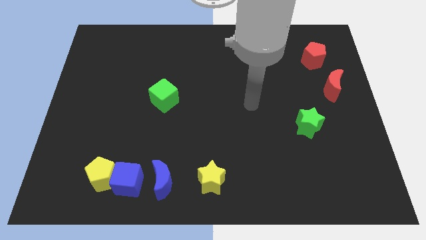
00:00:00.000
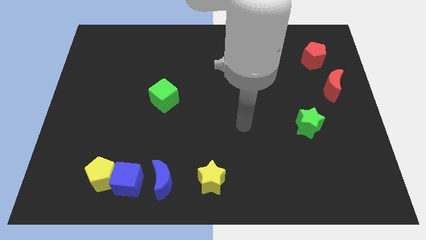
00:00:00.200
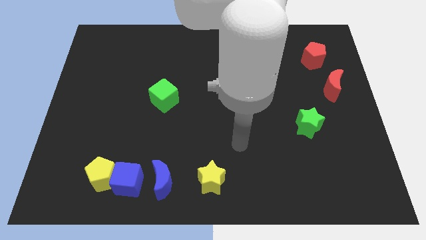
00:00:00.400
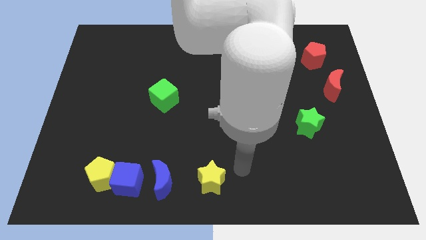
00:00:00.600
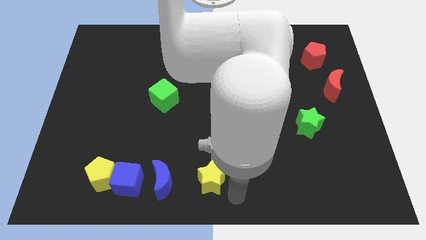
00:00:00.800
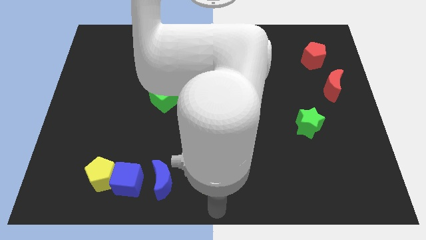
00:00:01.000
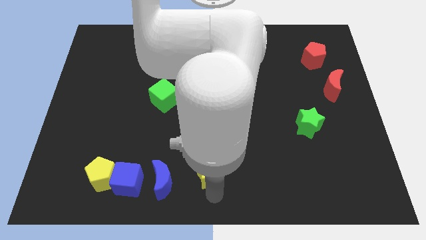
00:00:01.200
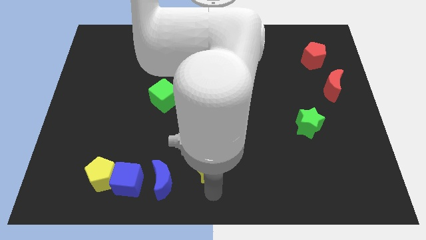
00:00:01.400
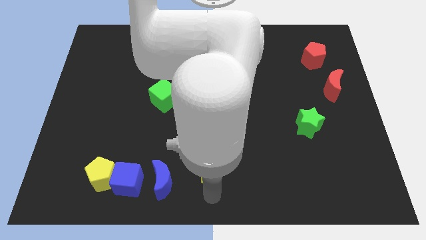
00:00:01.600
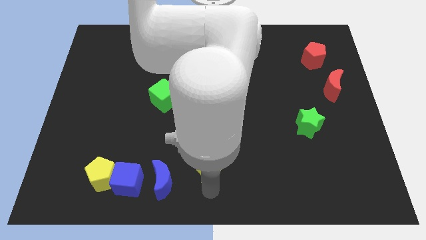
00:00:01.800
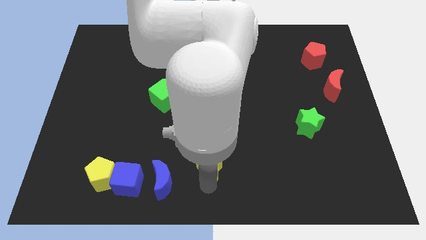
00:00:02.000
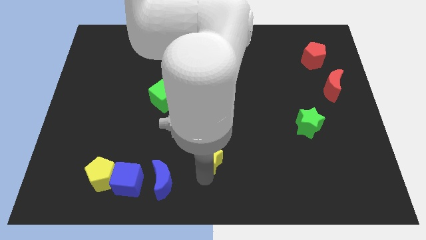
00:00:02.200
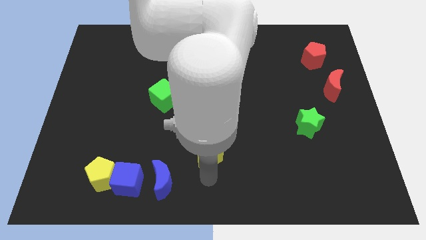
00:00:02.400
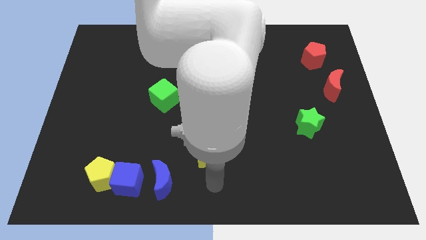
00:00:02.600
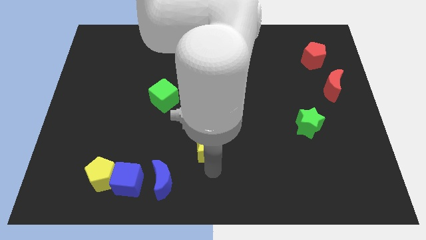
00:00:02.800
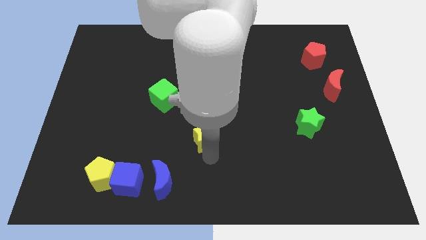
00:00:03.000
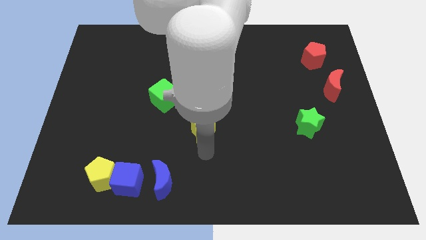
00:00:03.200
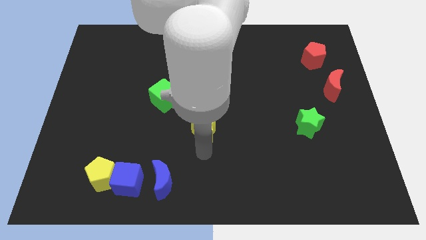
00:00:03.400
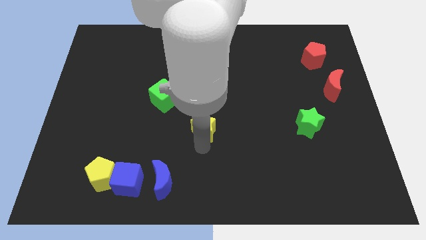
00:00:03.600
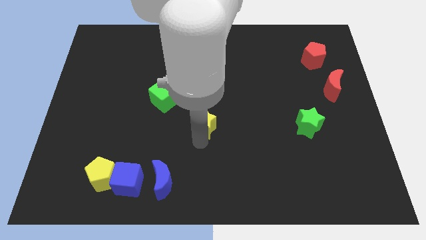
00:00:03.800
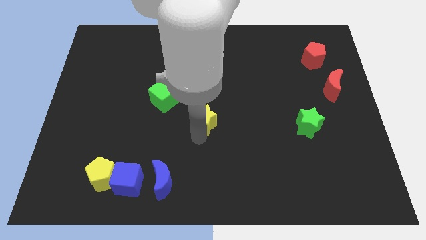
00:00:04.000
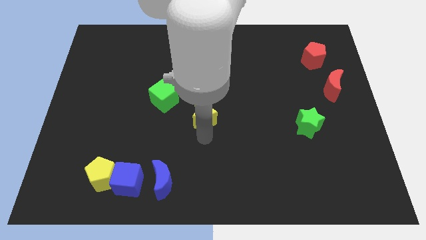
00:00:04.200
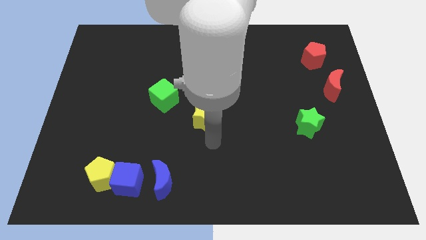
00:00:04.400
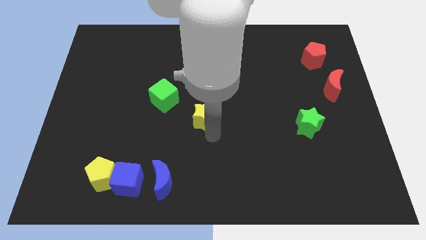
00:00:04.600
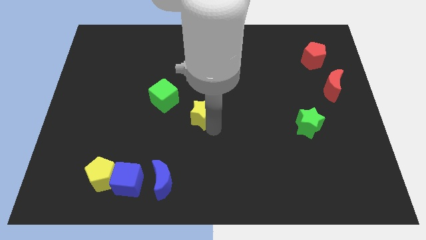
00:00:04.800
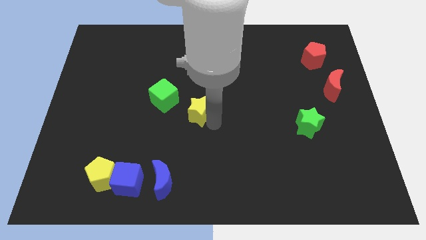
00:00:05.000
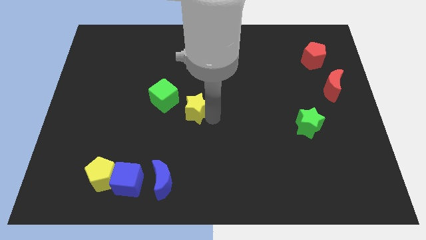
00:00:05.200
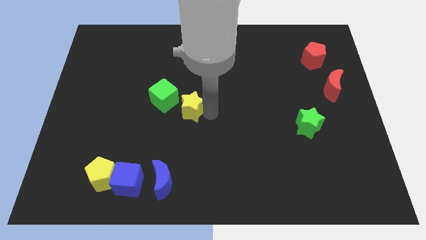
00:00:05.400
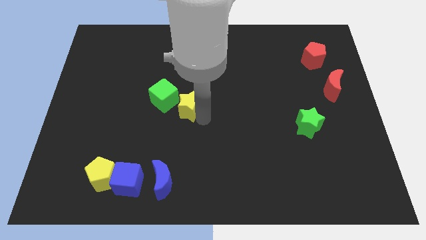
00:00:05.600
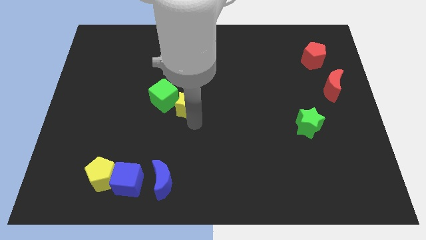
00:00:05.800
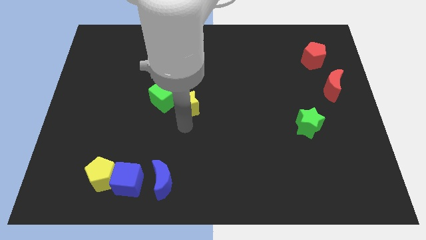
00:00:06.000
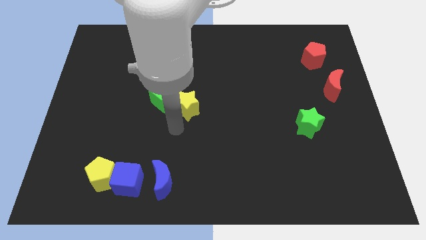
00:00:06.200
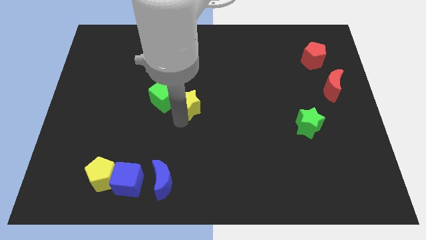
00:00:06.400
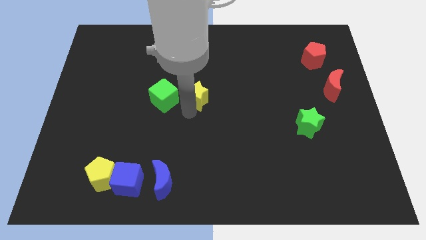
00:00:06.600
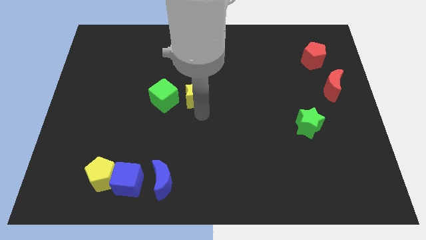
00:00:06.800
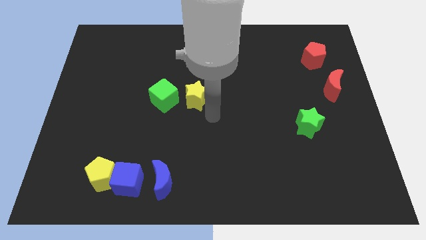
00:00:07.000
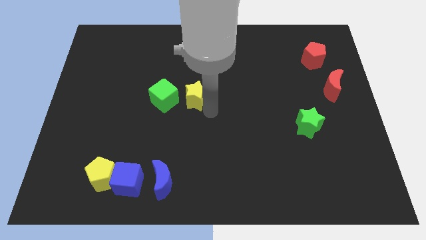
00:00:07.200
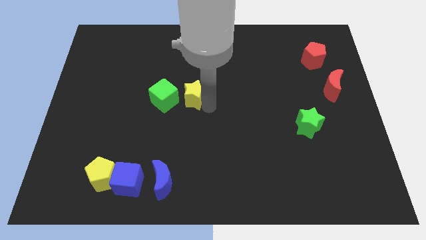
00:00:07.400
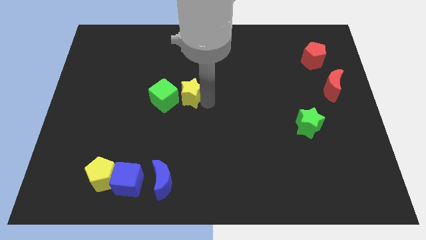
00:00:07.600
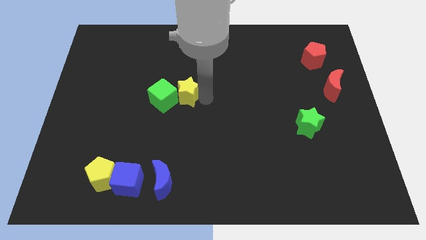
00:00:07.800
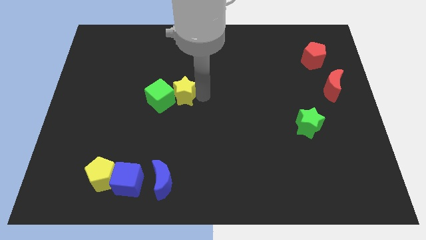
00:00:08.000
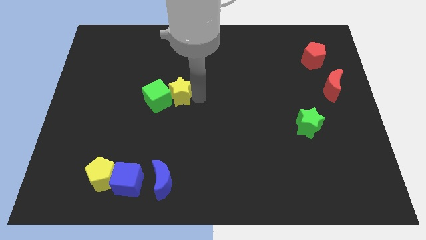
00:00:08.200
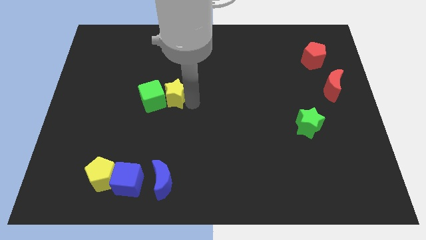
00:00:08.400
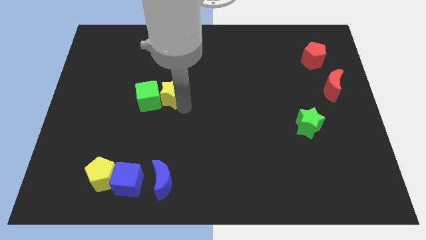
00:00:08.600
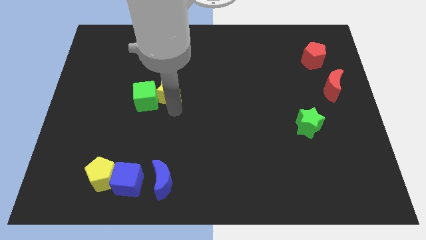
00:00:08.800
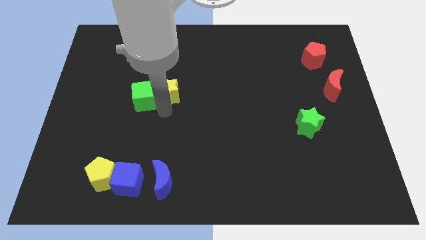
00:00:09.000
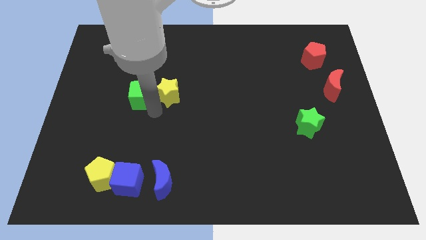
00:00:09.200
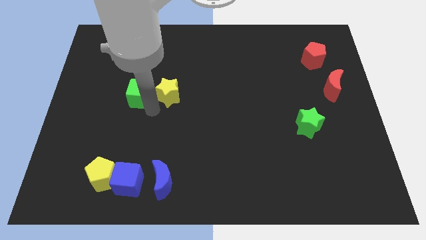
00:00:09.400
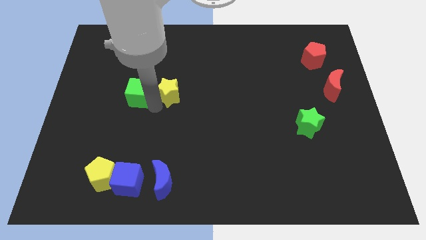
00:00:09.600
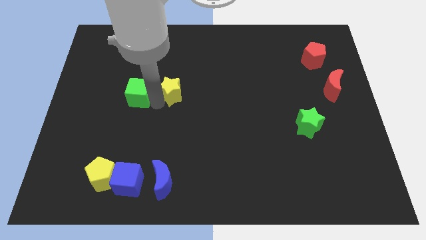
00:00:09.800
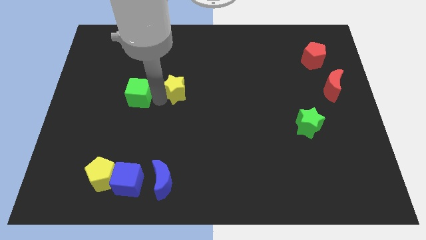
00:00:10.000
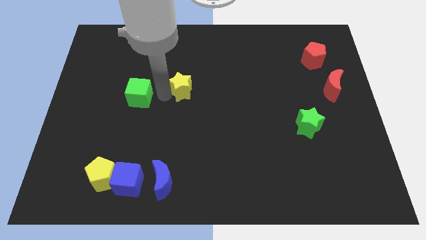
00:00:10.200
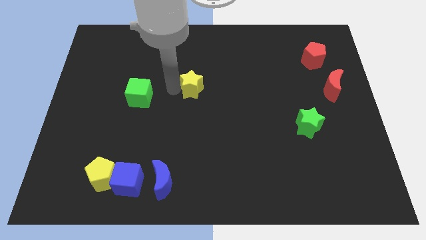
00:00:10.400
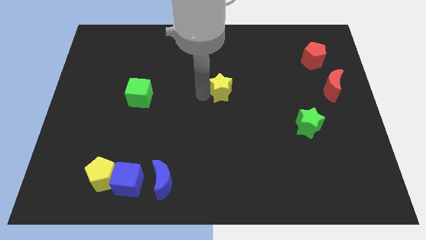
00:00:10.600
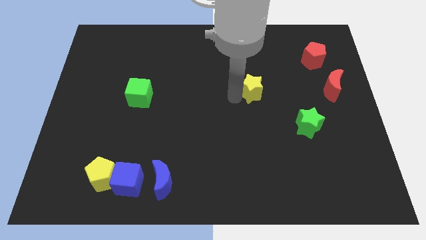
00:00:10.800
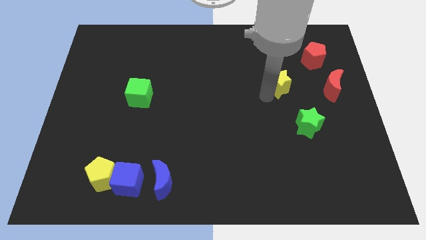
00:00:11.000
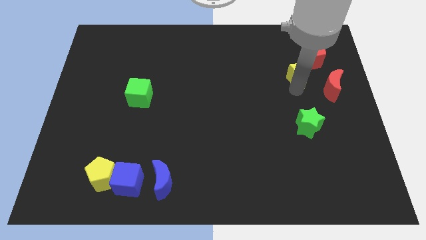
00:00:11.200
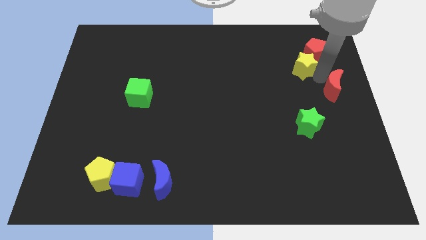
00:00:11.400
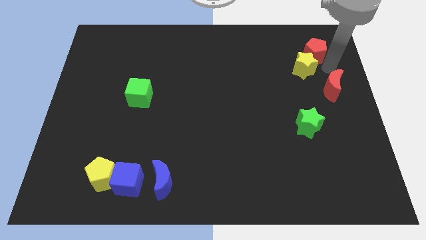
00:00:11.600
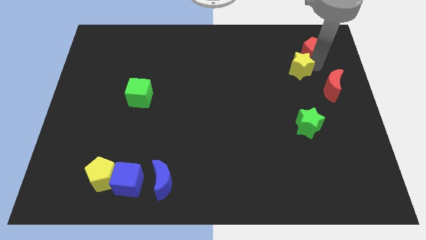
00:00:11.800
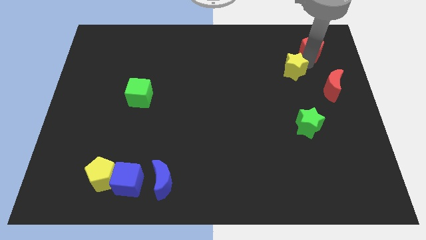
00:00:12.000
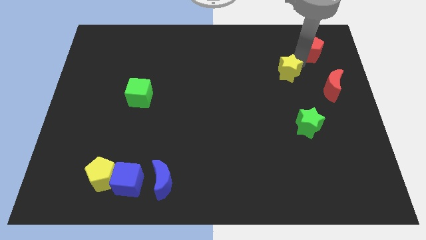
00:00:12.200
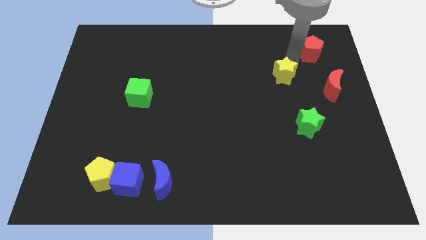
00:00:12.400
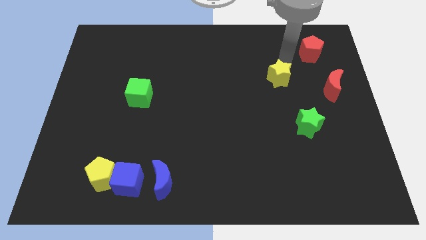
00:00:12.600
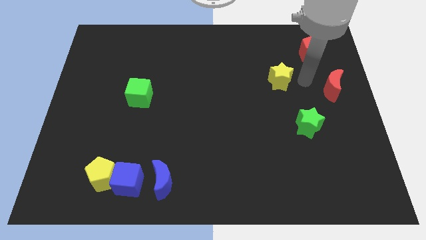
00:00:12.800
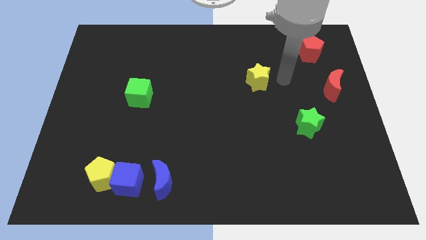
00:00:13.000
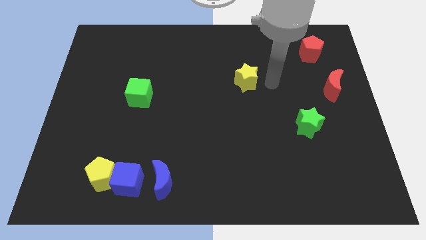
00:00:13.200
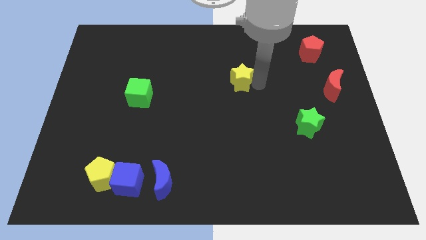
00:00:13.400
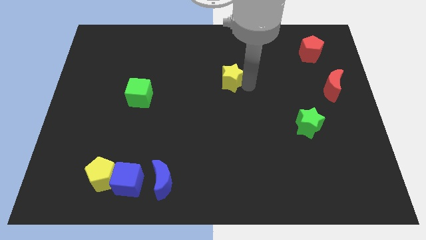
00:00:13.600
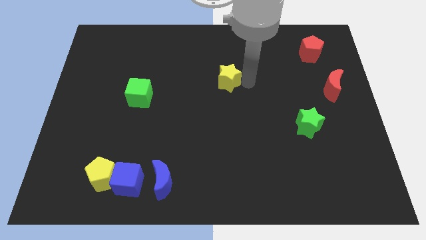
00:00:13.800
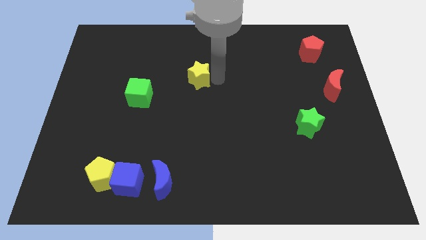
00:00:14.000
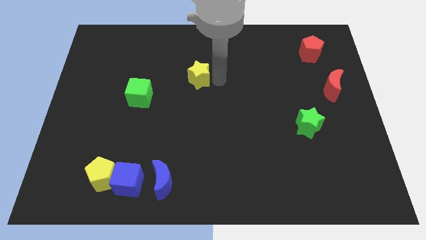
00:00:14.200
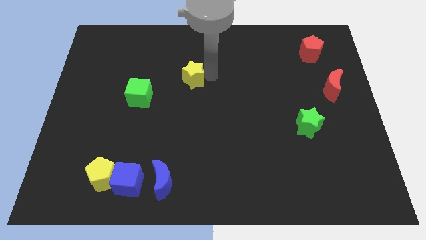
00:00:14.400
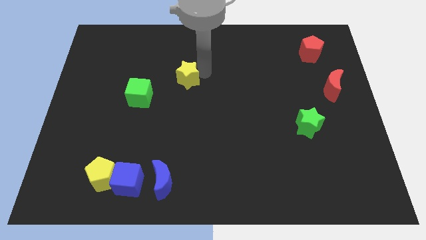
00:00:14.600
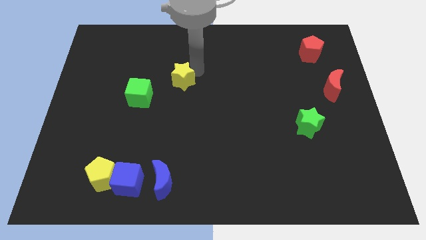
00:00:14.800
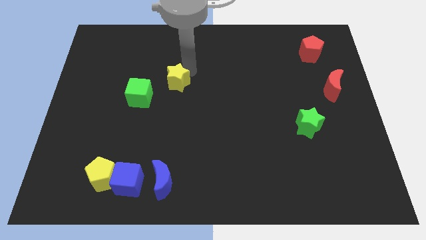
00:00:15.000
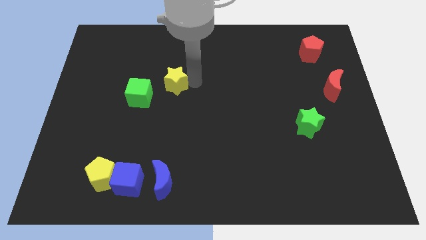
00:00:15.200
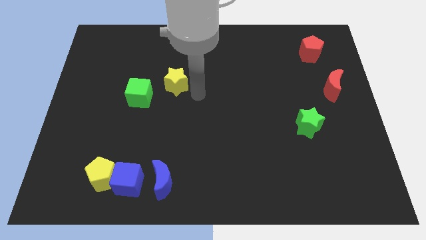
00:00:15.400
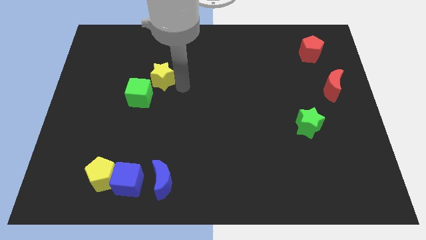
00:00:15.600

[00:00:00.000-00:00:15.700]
slide the yellow star to the top of the green cube

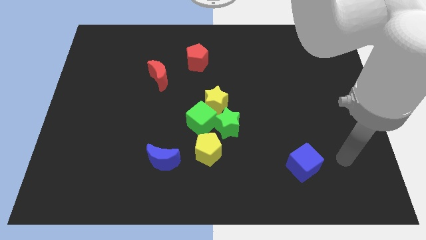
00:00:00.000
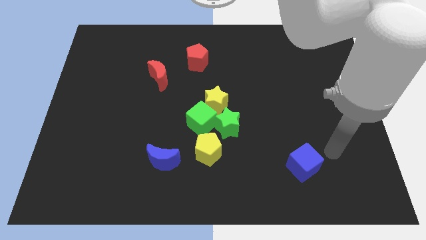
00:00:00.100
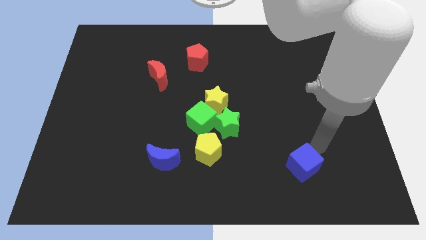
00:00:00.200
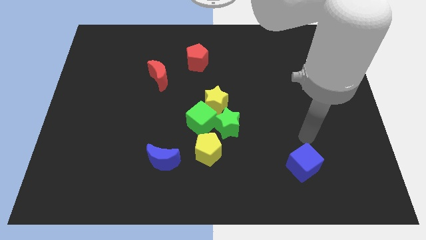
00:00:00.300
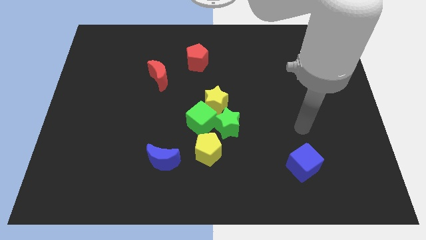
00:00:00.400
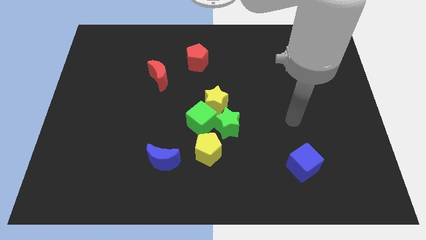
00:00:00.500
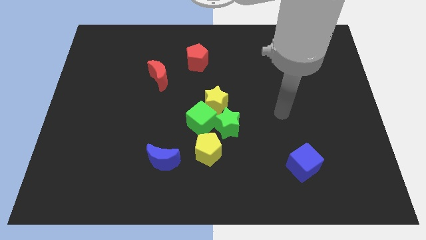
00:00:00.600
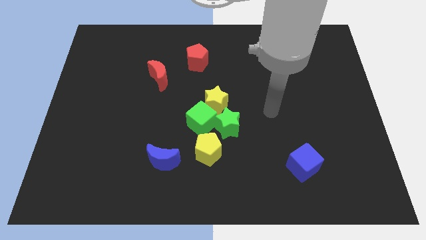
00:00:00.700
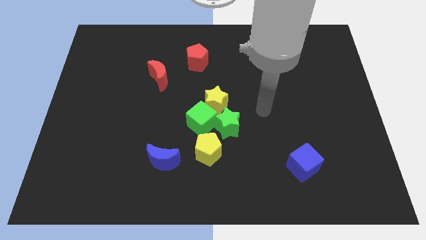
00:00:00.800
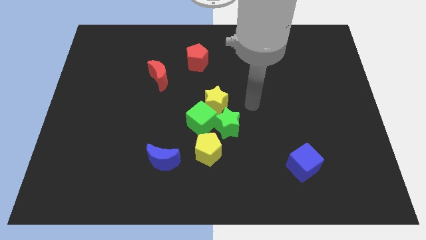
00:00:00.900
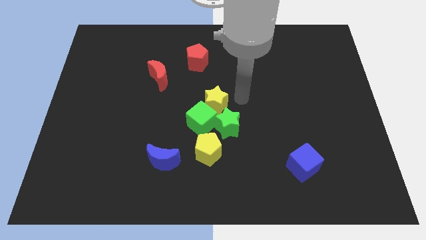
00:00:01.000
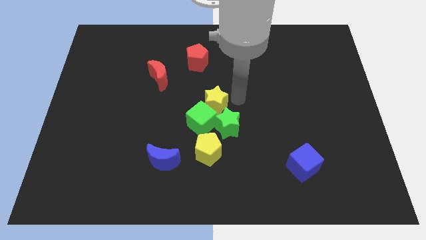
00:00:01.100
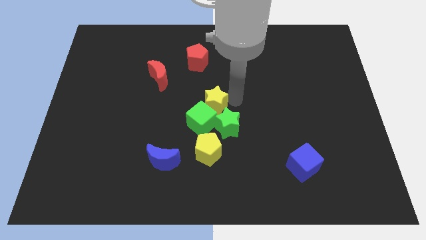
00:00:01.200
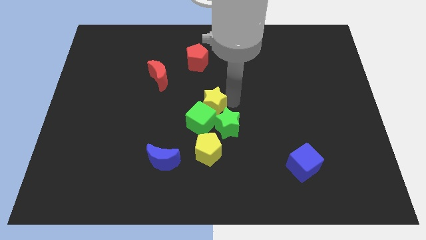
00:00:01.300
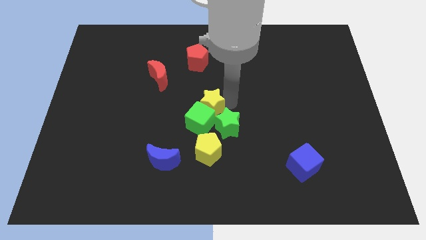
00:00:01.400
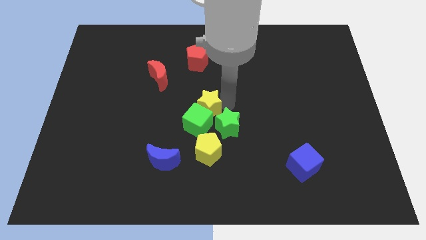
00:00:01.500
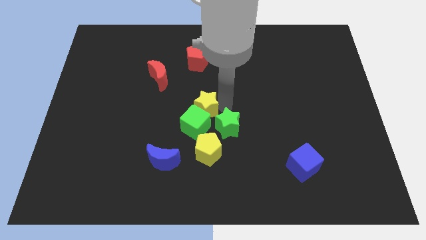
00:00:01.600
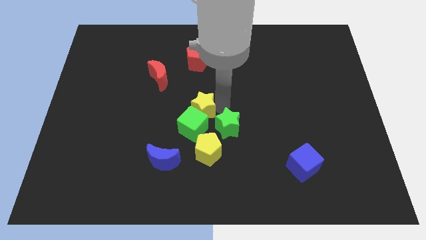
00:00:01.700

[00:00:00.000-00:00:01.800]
slide the yellow star just left of the green star
